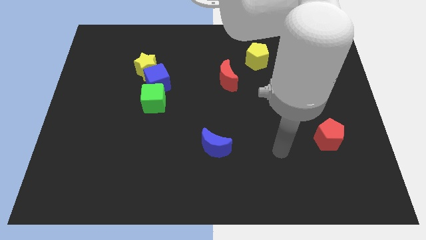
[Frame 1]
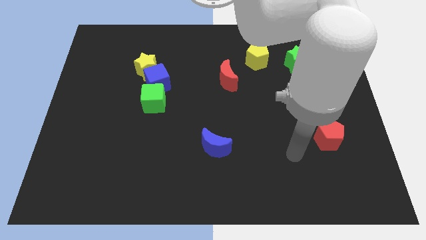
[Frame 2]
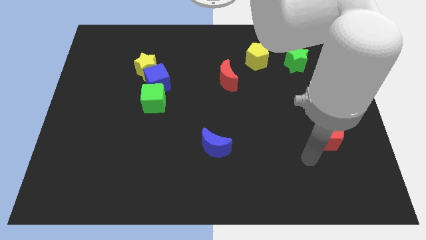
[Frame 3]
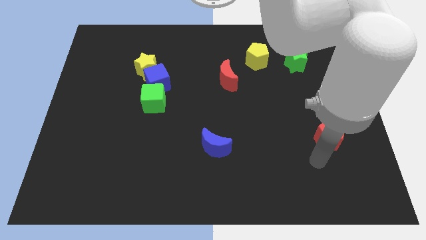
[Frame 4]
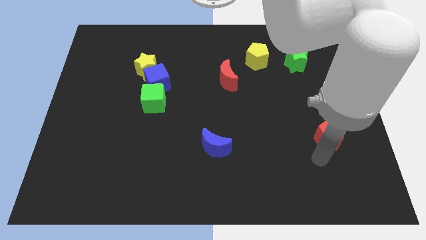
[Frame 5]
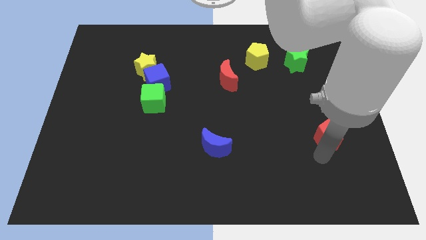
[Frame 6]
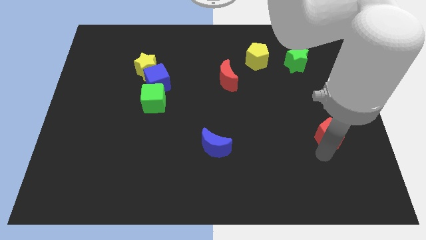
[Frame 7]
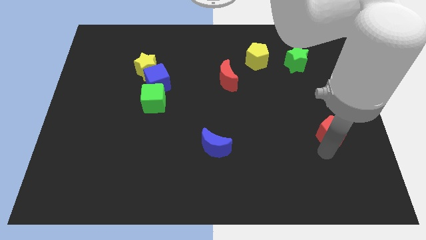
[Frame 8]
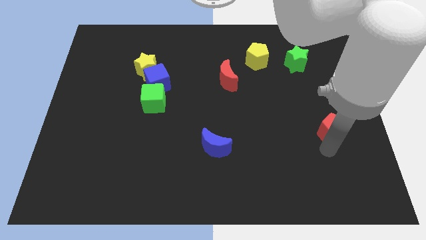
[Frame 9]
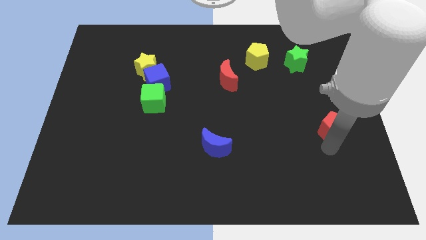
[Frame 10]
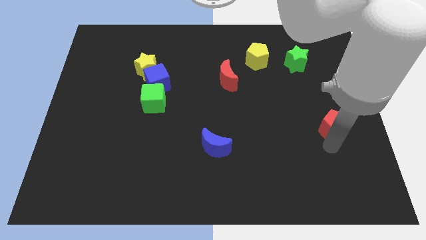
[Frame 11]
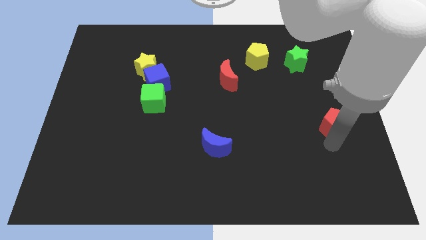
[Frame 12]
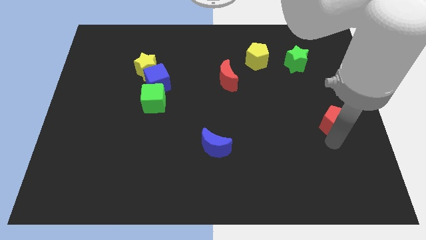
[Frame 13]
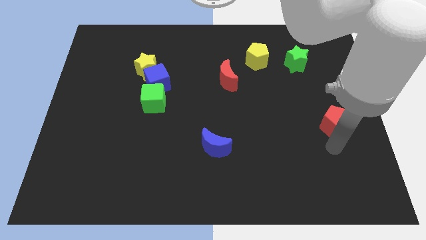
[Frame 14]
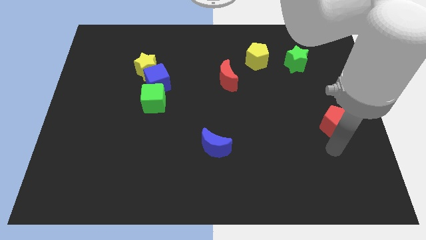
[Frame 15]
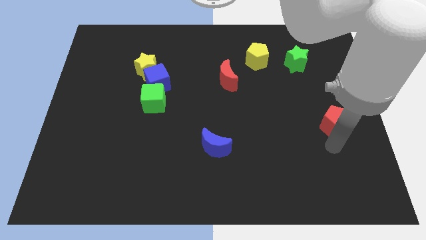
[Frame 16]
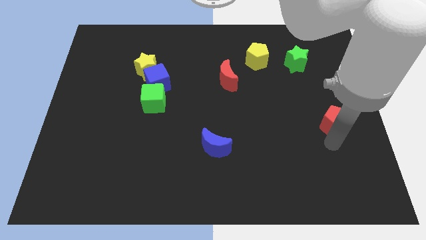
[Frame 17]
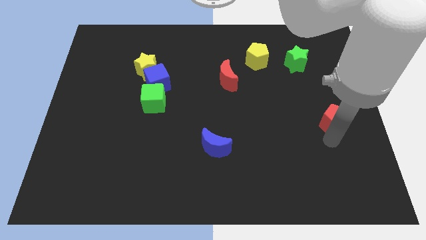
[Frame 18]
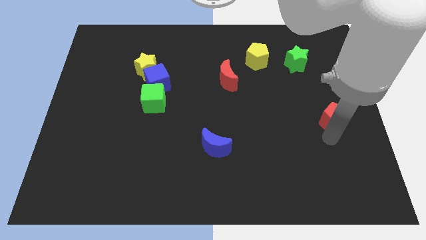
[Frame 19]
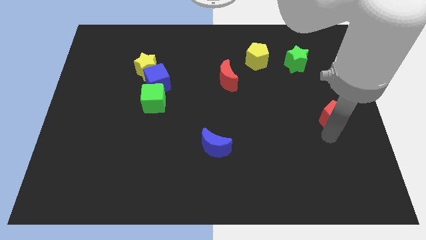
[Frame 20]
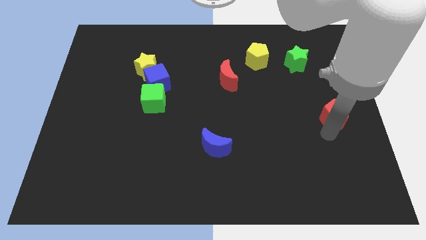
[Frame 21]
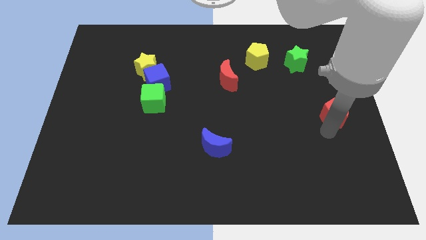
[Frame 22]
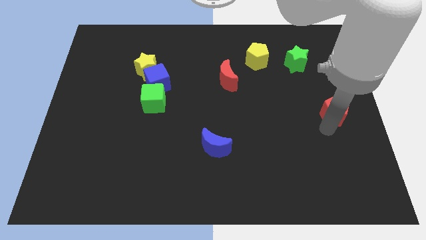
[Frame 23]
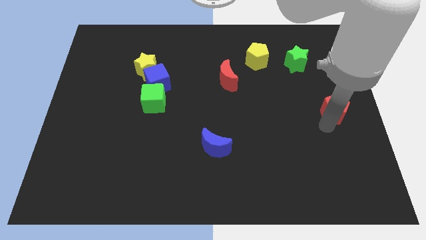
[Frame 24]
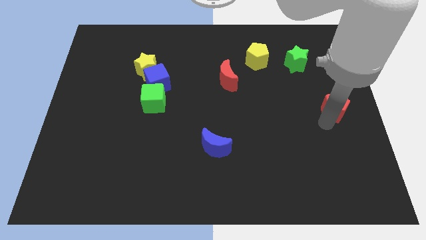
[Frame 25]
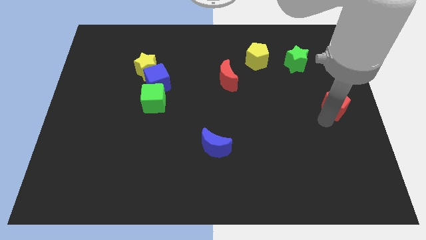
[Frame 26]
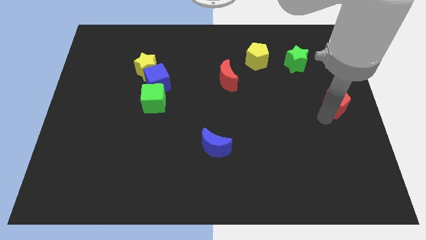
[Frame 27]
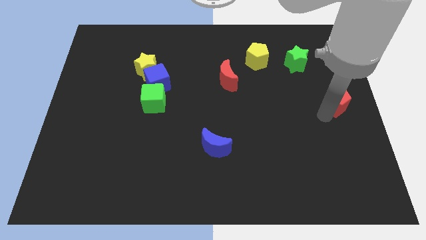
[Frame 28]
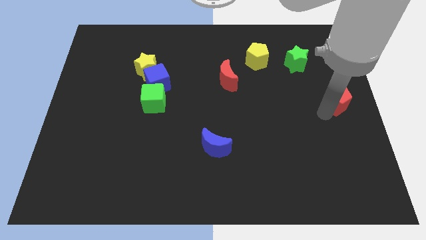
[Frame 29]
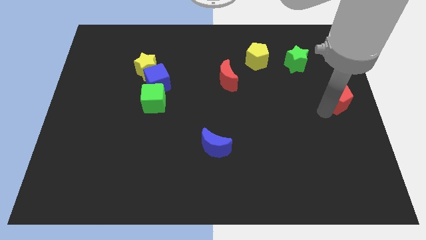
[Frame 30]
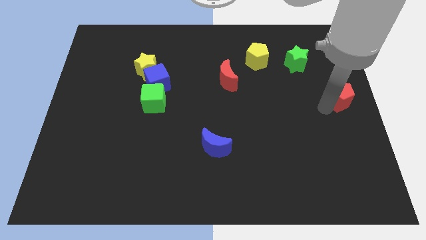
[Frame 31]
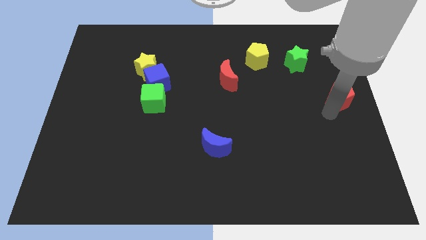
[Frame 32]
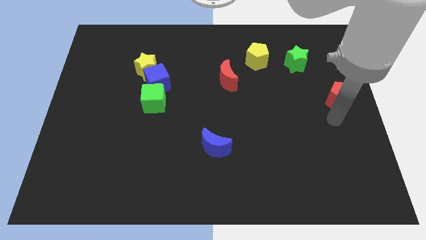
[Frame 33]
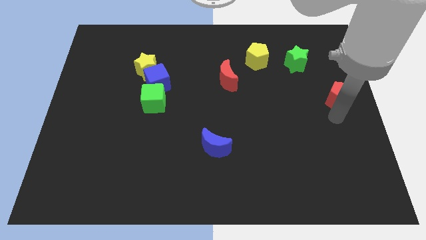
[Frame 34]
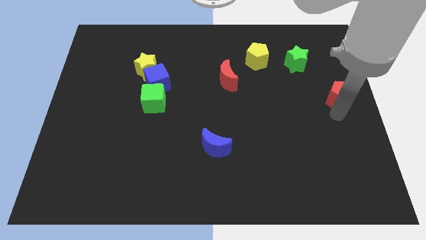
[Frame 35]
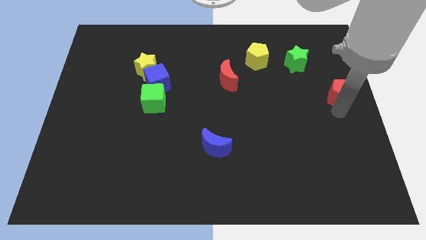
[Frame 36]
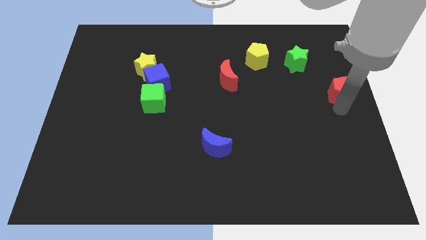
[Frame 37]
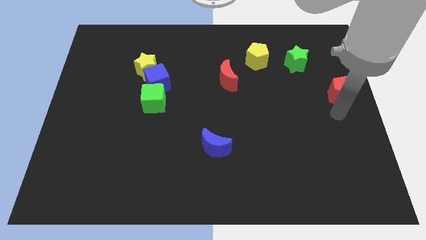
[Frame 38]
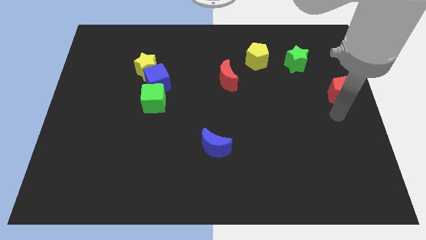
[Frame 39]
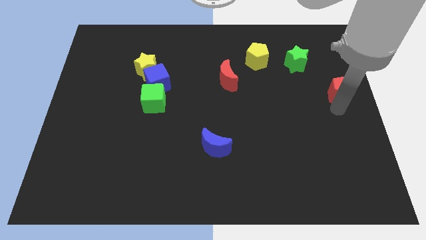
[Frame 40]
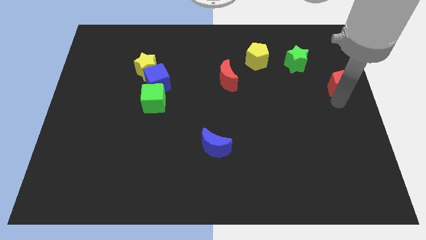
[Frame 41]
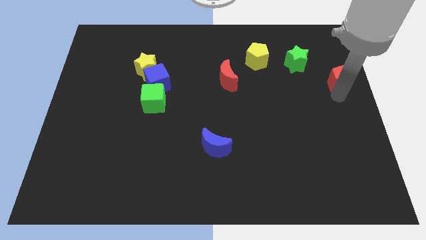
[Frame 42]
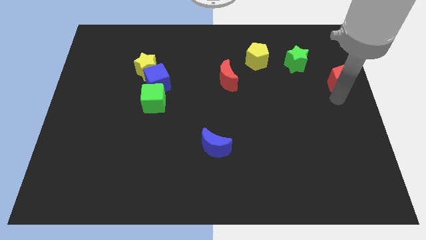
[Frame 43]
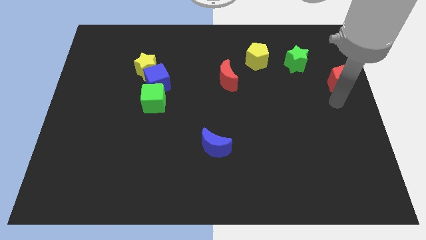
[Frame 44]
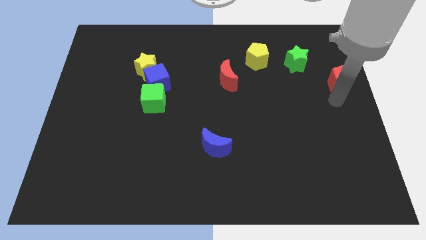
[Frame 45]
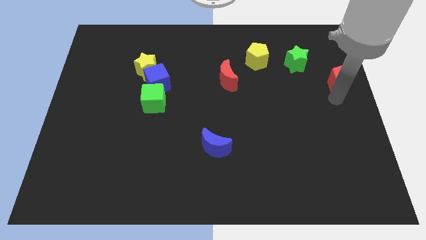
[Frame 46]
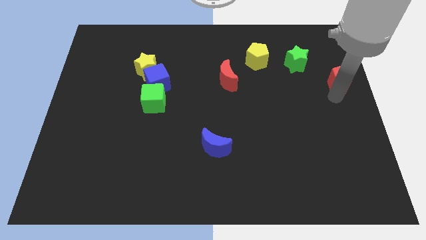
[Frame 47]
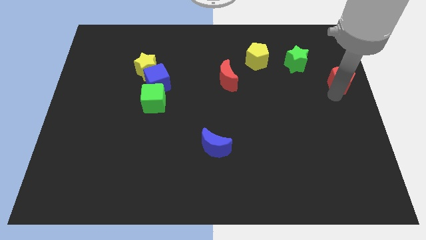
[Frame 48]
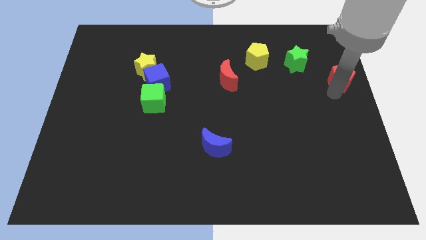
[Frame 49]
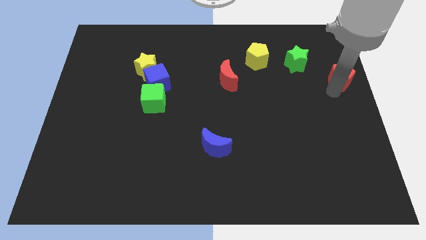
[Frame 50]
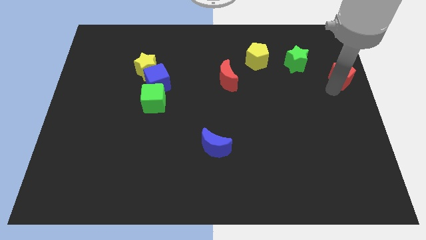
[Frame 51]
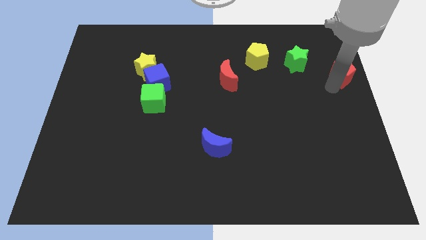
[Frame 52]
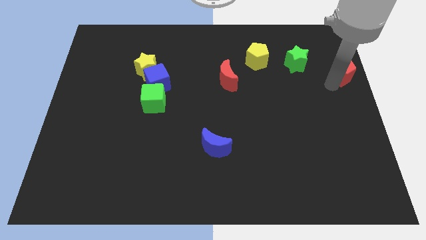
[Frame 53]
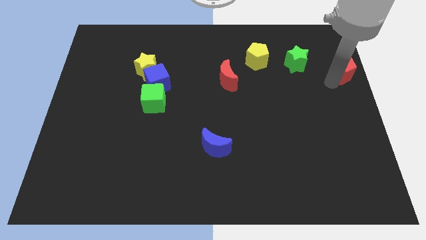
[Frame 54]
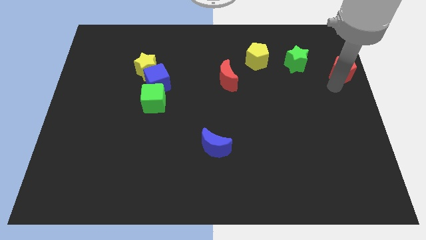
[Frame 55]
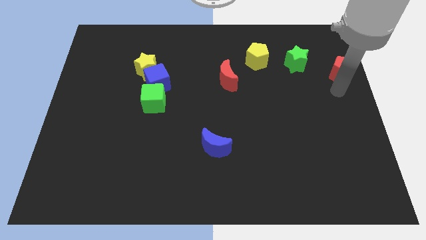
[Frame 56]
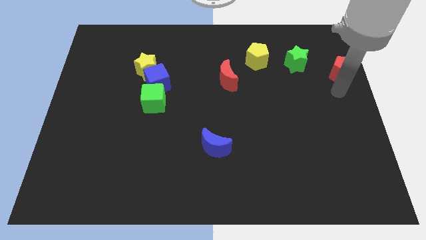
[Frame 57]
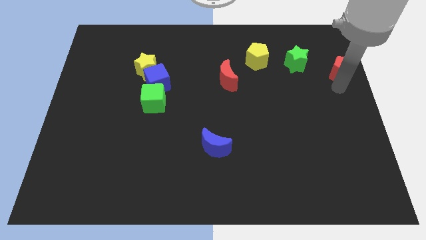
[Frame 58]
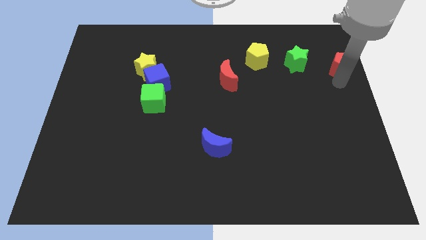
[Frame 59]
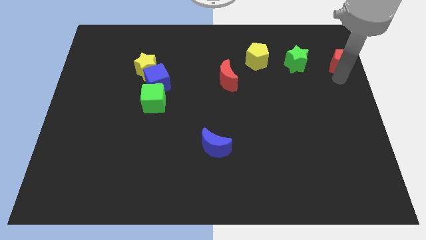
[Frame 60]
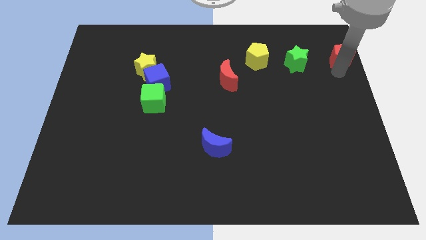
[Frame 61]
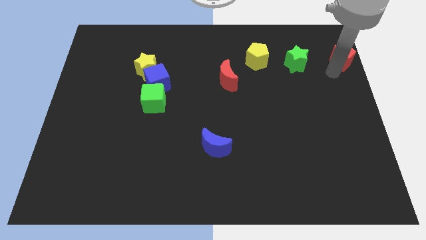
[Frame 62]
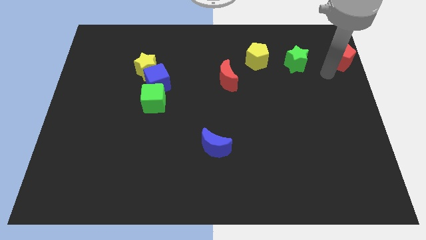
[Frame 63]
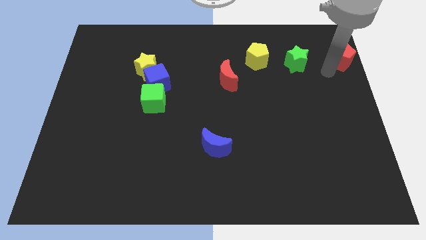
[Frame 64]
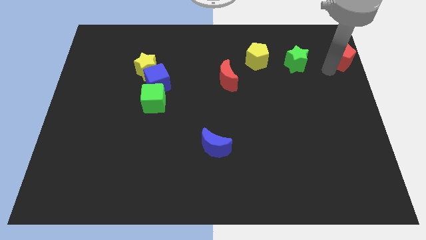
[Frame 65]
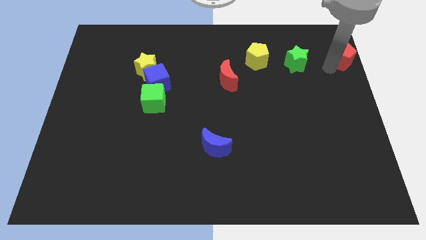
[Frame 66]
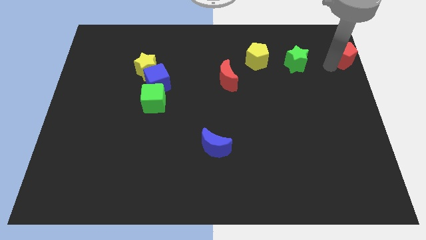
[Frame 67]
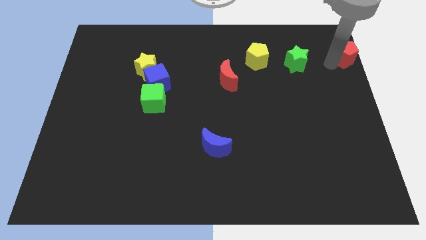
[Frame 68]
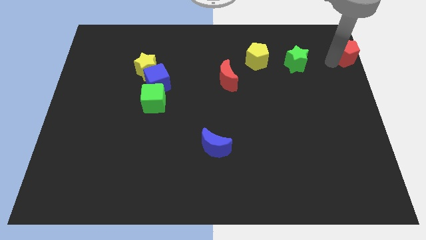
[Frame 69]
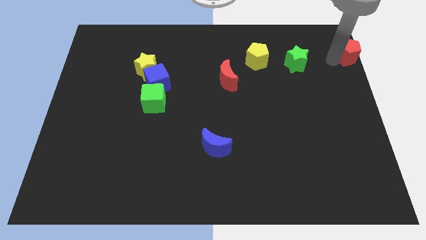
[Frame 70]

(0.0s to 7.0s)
put the red pentagon to the top right of the board
